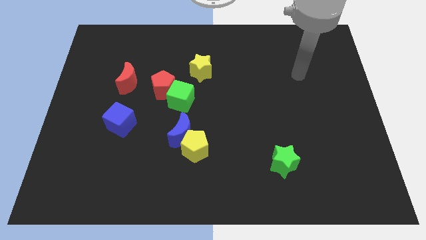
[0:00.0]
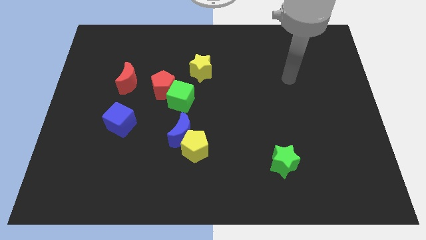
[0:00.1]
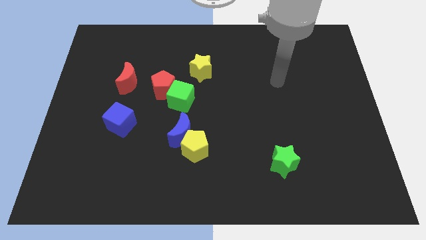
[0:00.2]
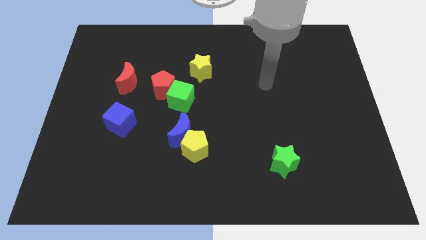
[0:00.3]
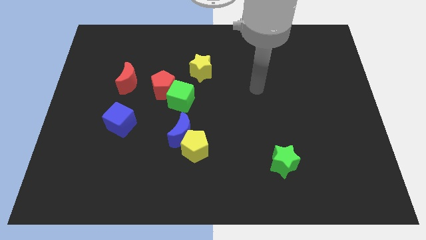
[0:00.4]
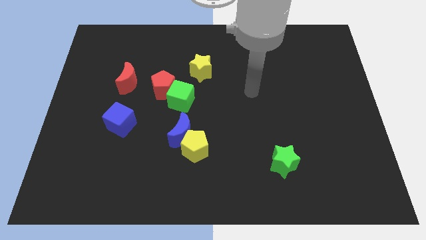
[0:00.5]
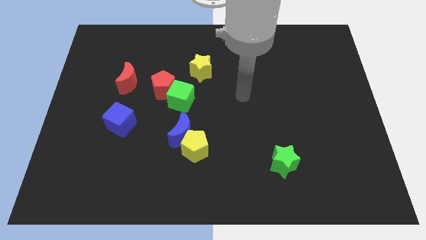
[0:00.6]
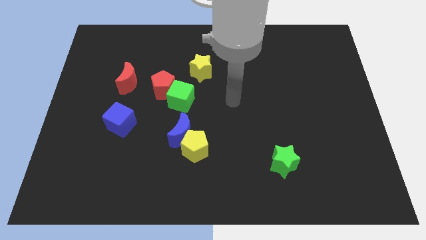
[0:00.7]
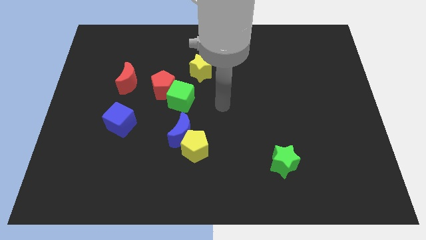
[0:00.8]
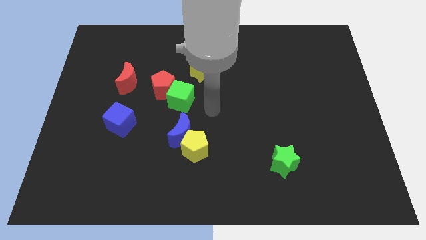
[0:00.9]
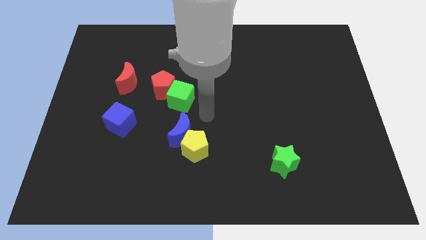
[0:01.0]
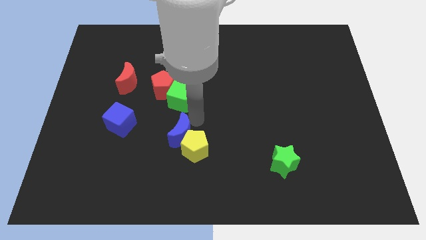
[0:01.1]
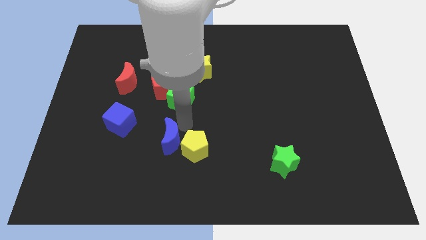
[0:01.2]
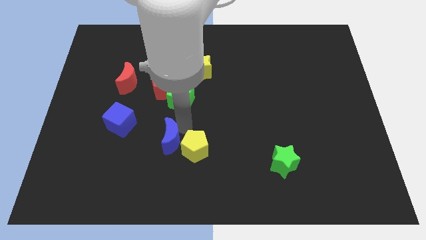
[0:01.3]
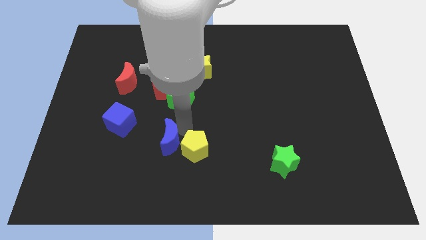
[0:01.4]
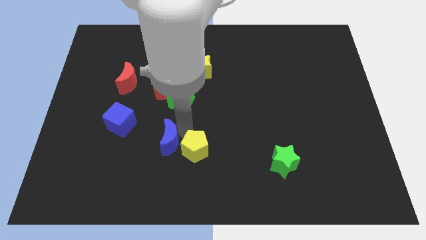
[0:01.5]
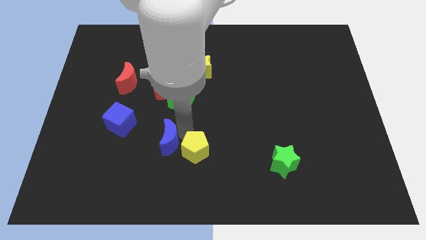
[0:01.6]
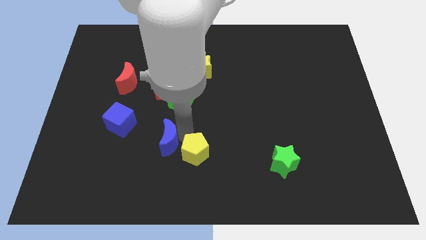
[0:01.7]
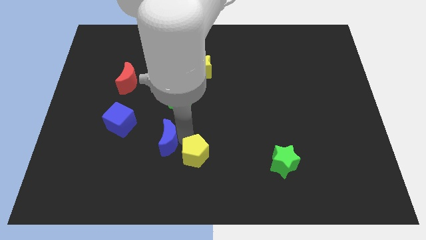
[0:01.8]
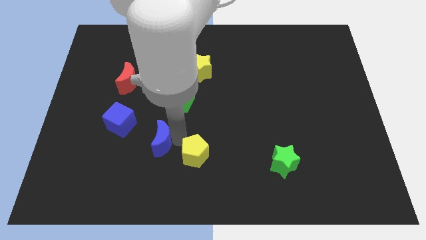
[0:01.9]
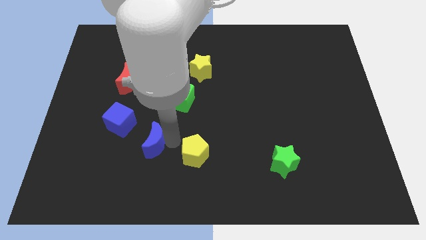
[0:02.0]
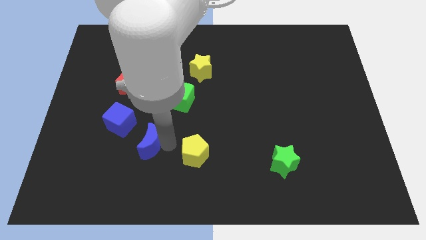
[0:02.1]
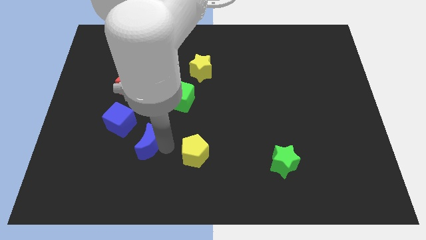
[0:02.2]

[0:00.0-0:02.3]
pull the yellow pentagon apart from the blue moon

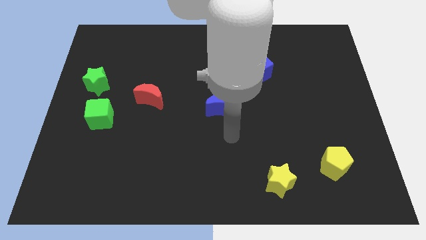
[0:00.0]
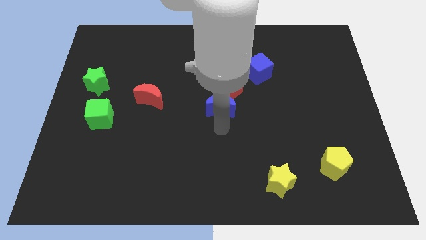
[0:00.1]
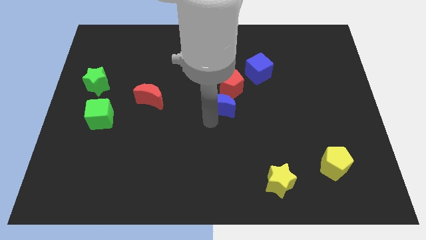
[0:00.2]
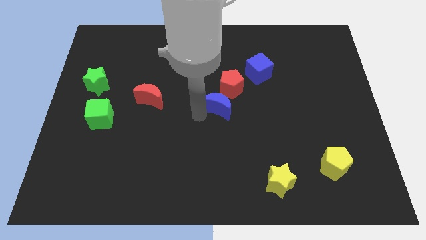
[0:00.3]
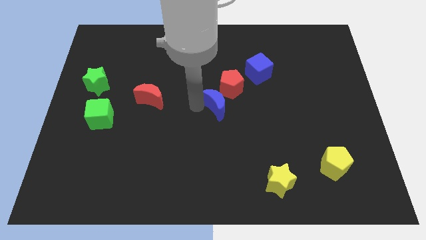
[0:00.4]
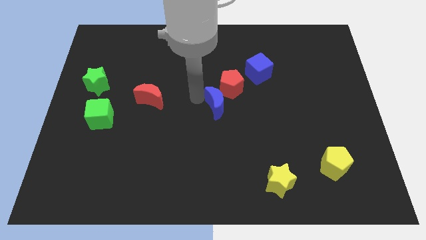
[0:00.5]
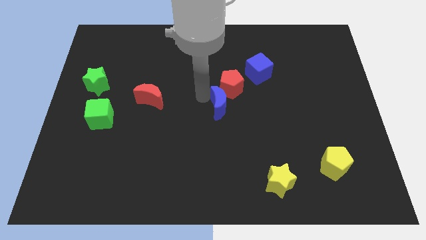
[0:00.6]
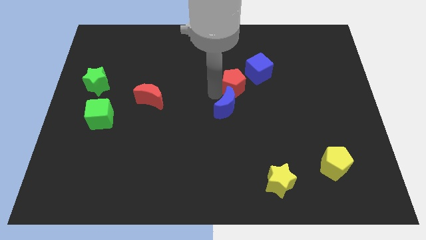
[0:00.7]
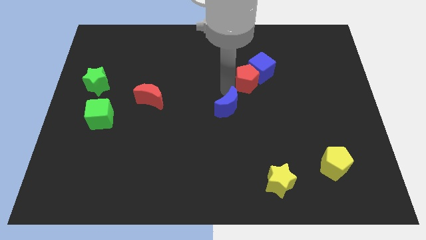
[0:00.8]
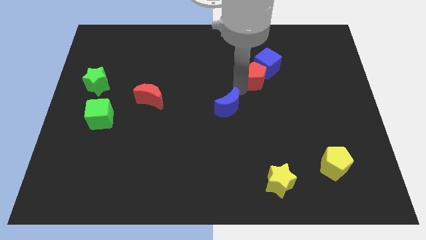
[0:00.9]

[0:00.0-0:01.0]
separate the blue moon from the red pentagon

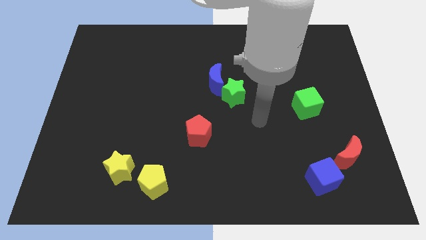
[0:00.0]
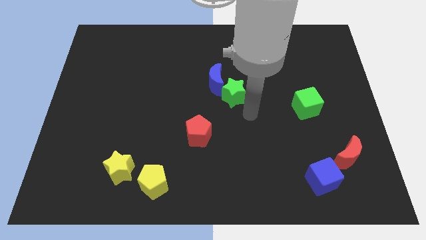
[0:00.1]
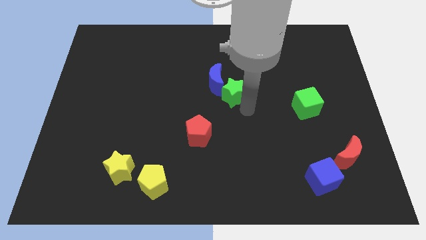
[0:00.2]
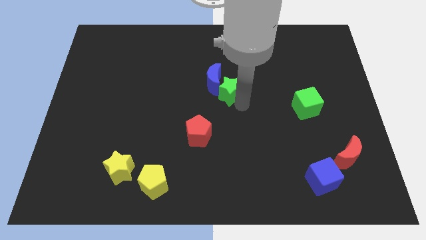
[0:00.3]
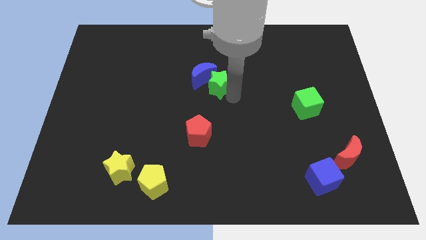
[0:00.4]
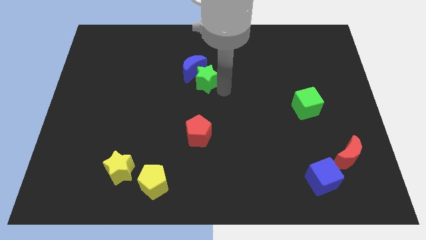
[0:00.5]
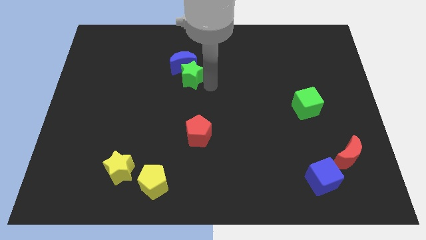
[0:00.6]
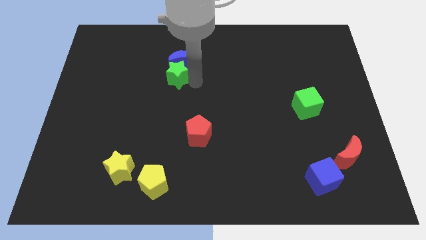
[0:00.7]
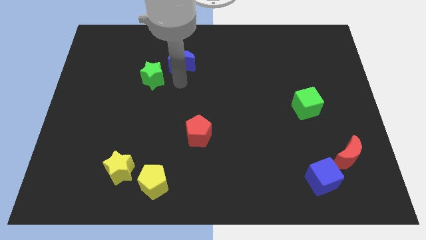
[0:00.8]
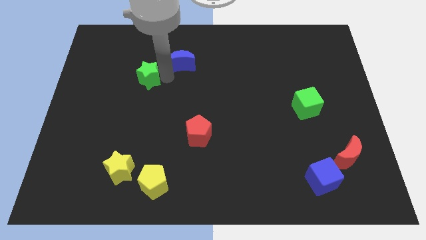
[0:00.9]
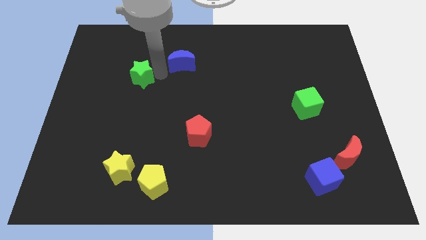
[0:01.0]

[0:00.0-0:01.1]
move the blue moon away from the green star

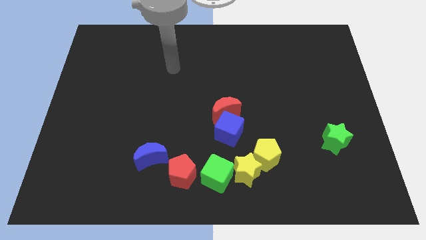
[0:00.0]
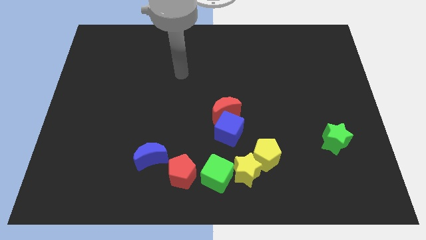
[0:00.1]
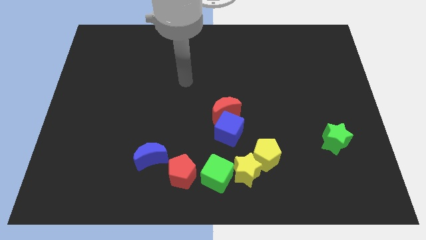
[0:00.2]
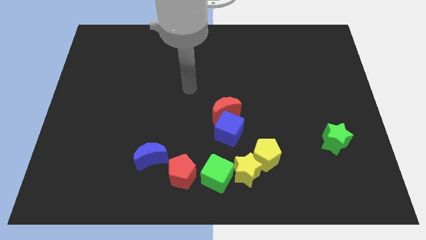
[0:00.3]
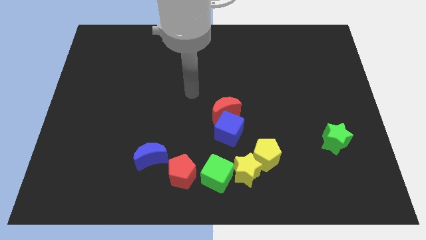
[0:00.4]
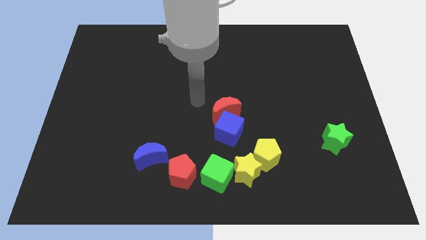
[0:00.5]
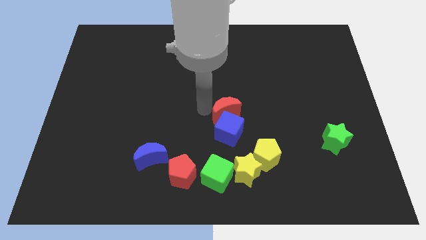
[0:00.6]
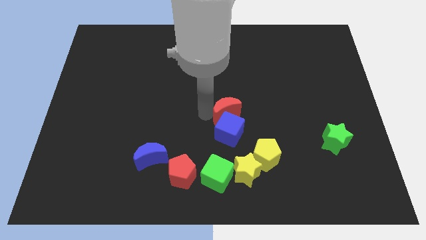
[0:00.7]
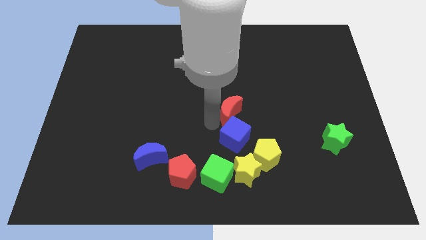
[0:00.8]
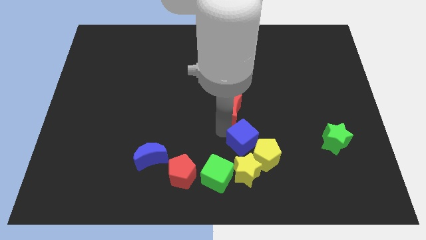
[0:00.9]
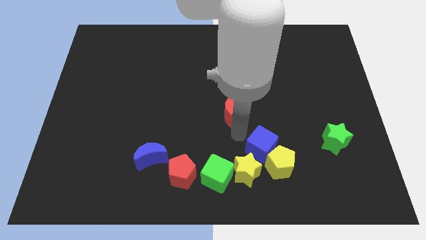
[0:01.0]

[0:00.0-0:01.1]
separate the red moon from the blue cube

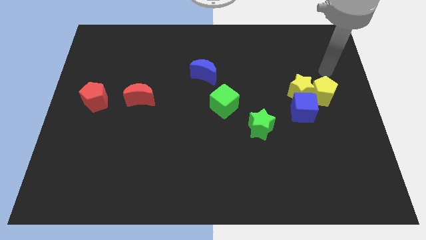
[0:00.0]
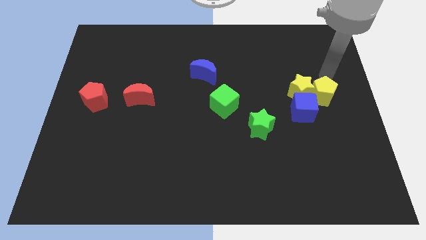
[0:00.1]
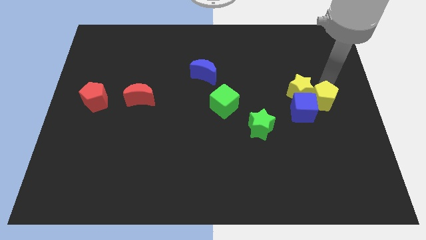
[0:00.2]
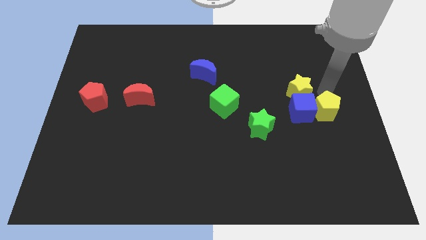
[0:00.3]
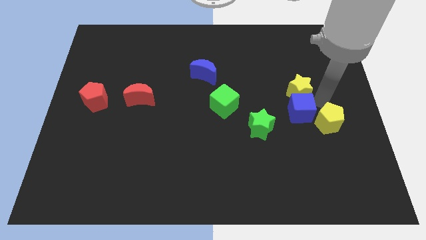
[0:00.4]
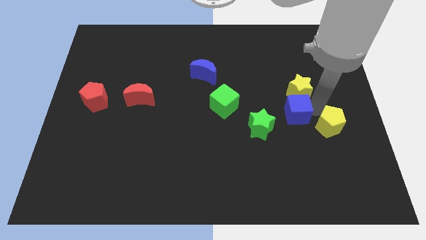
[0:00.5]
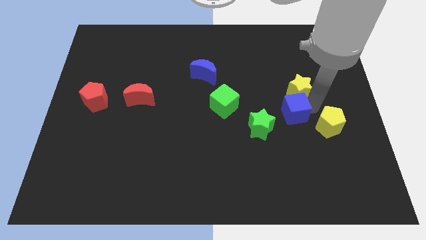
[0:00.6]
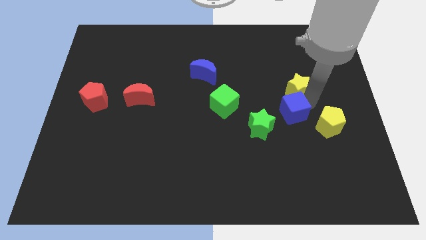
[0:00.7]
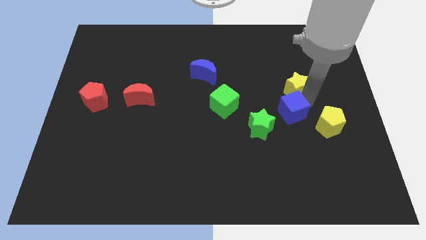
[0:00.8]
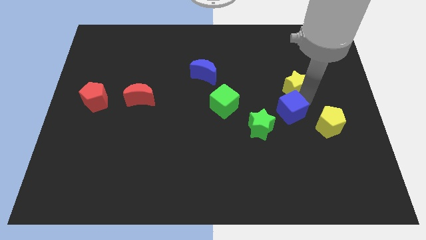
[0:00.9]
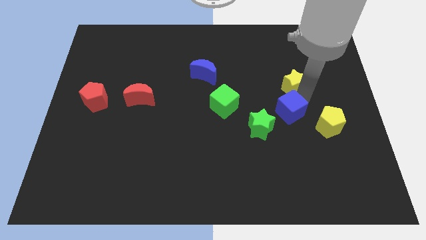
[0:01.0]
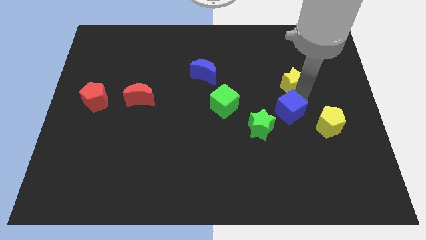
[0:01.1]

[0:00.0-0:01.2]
separate the yellow star from the yellow pentagon and blue cube

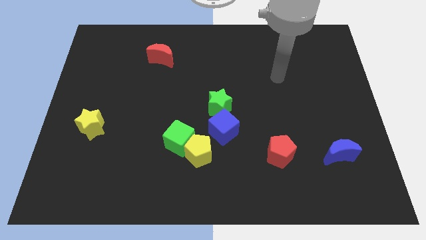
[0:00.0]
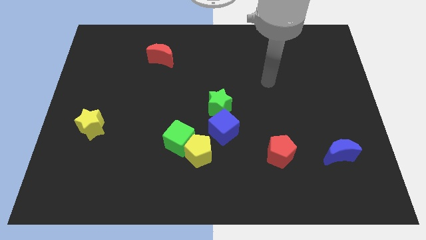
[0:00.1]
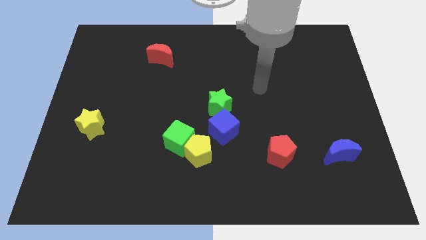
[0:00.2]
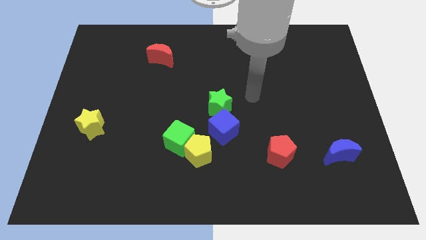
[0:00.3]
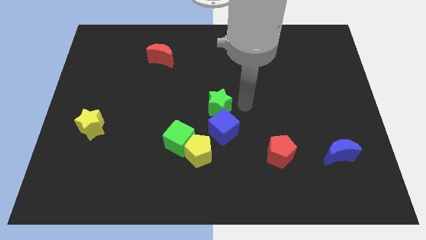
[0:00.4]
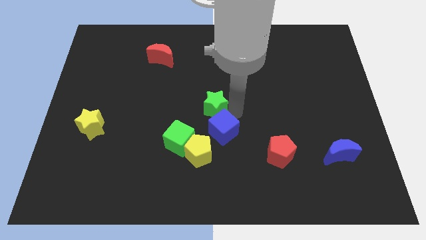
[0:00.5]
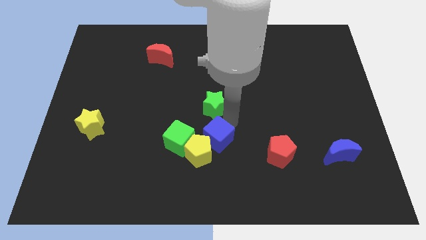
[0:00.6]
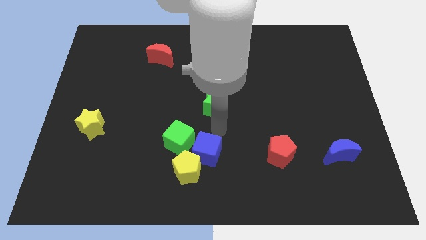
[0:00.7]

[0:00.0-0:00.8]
separate the green star from the blue cube

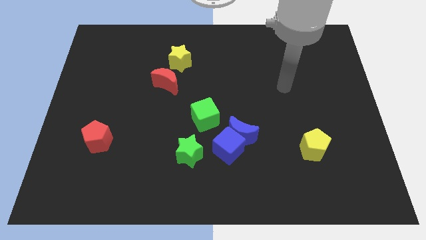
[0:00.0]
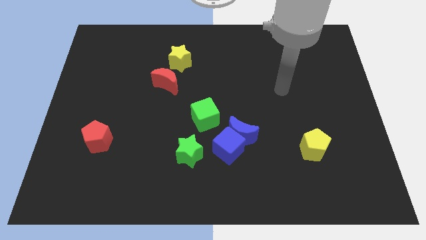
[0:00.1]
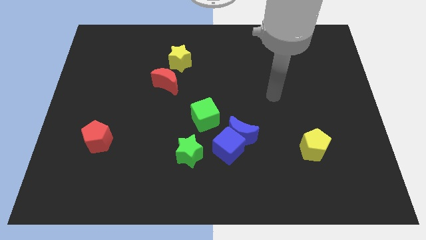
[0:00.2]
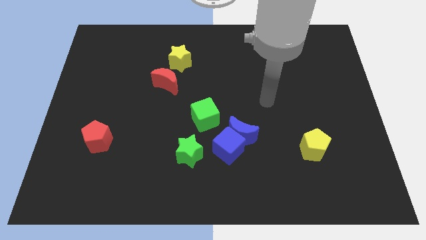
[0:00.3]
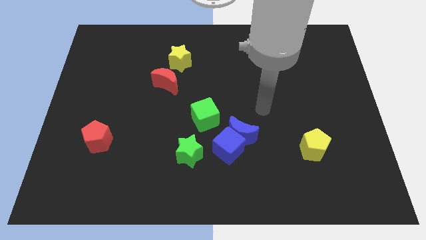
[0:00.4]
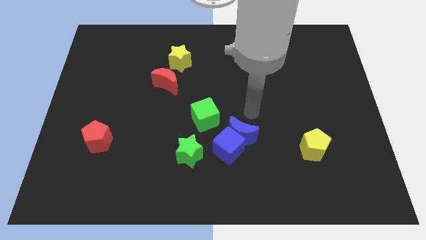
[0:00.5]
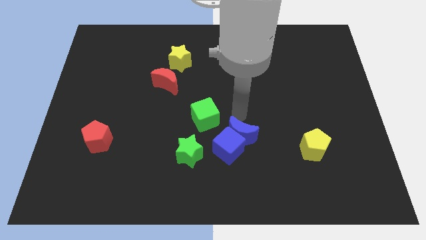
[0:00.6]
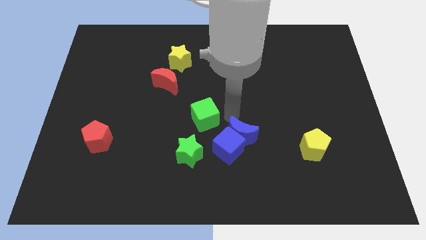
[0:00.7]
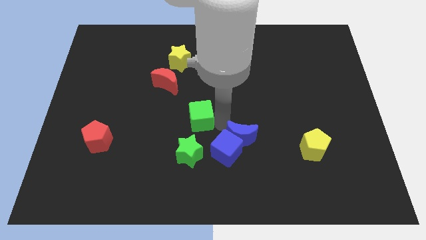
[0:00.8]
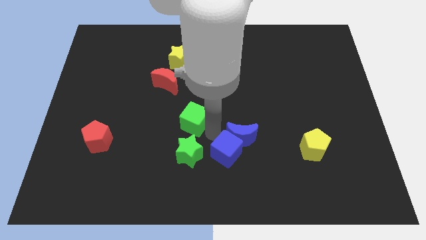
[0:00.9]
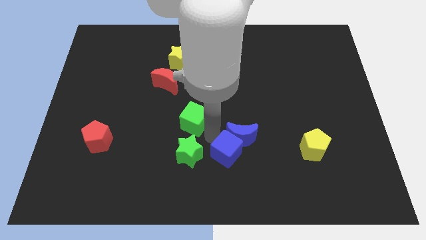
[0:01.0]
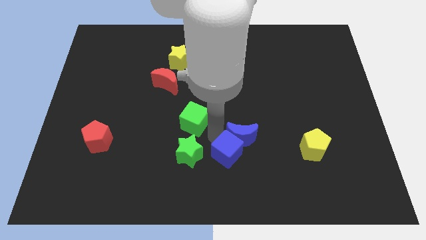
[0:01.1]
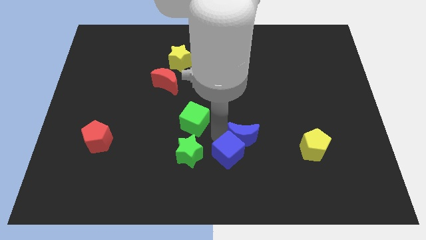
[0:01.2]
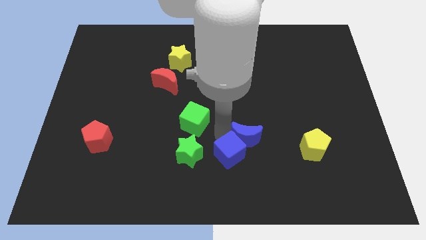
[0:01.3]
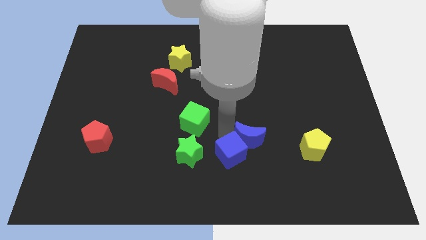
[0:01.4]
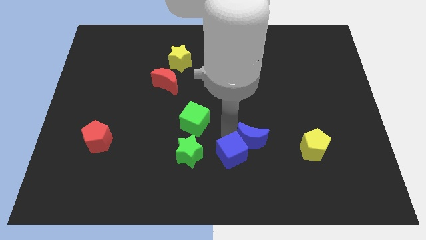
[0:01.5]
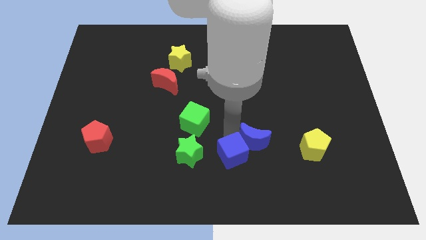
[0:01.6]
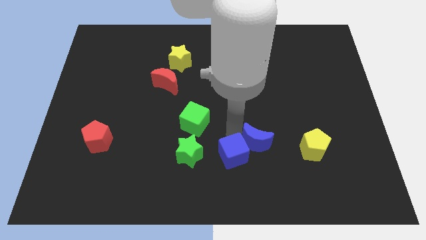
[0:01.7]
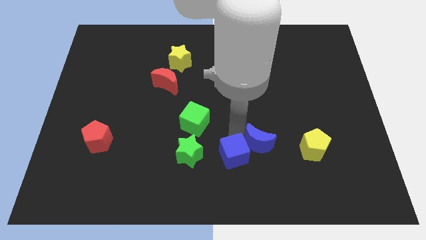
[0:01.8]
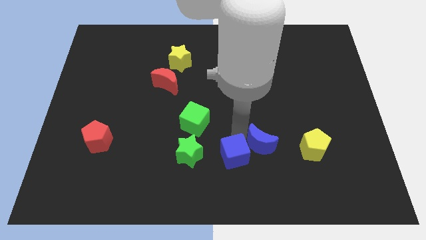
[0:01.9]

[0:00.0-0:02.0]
pull the blue moon apart from the blue cube and green cube
